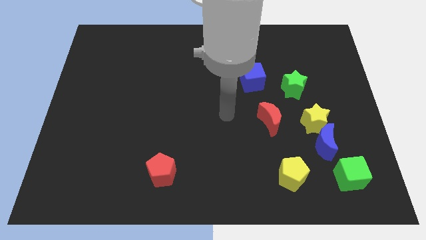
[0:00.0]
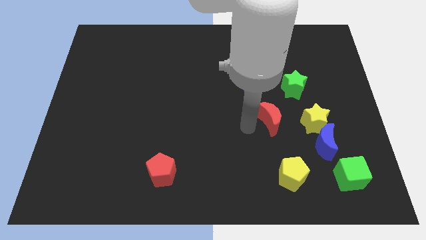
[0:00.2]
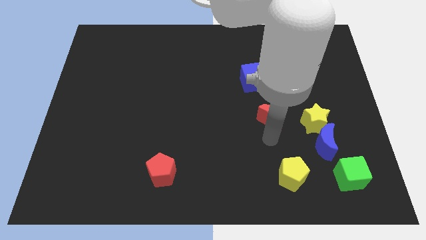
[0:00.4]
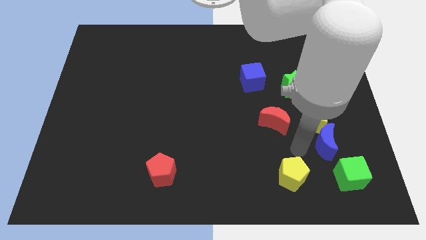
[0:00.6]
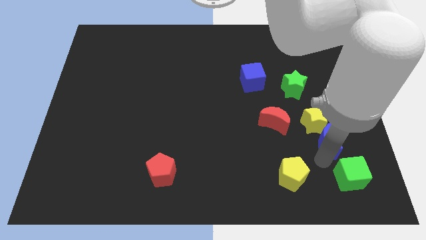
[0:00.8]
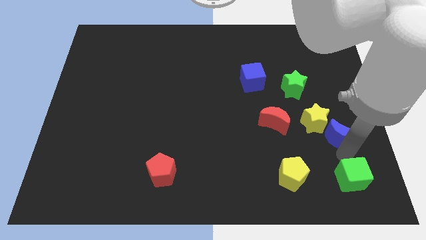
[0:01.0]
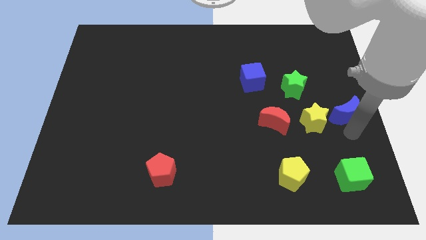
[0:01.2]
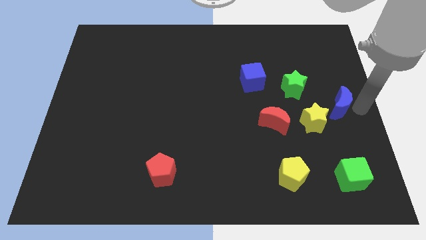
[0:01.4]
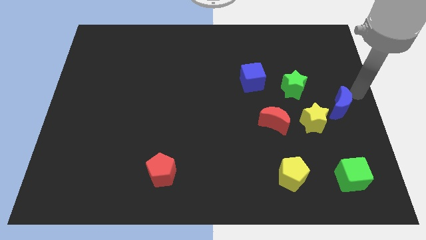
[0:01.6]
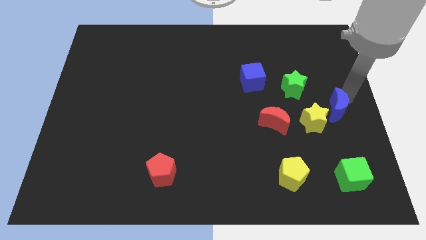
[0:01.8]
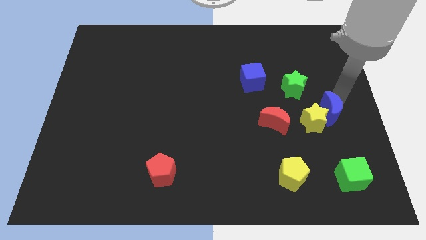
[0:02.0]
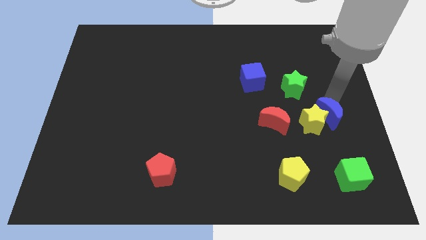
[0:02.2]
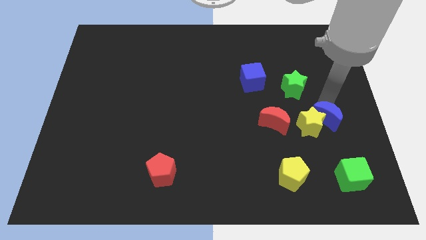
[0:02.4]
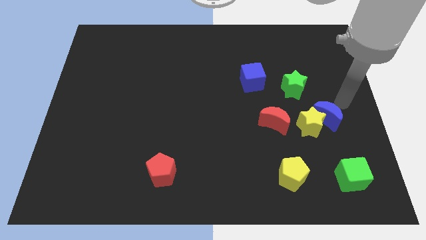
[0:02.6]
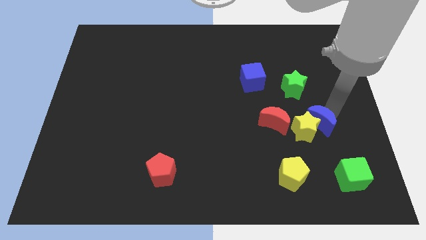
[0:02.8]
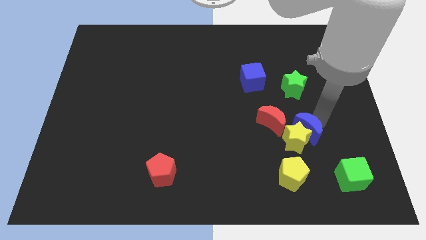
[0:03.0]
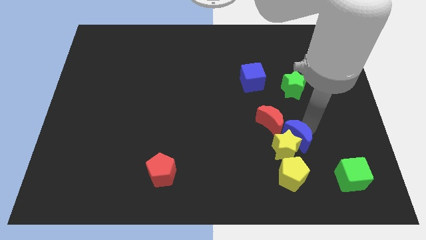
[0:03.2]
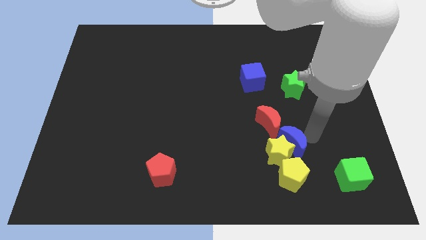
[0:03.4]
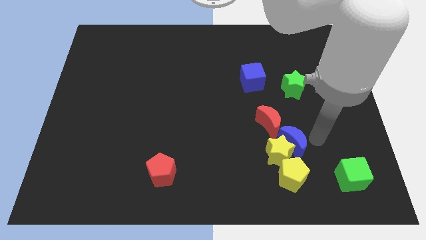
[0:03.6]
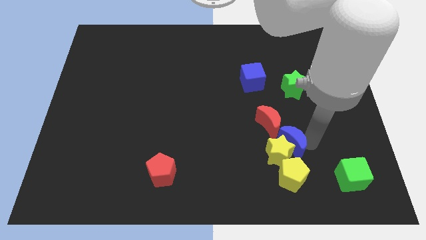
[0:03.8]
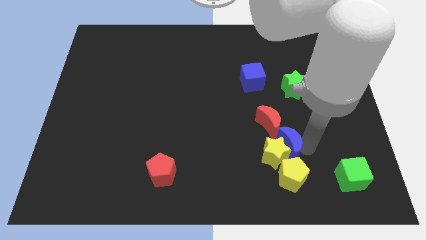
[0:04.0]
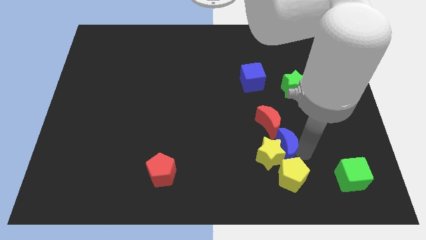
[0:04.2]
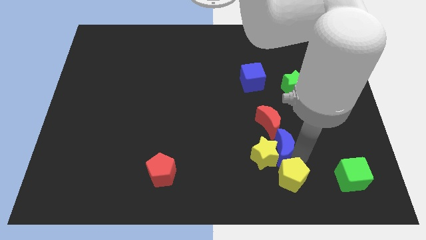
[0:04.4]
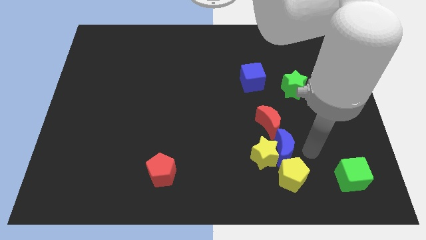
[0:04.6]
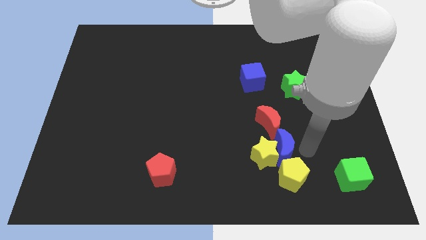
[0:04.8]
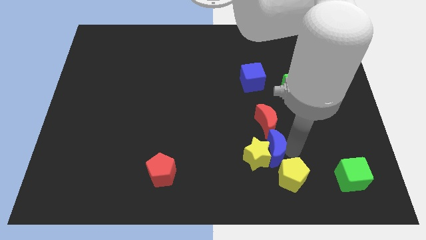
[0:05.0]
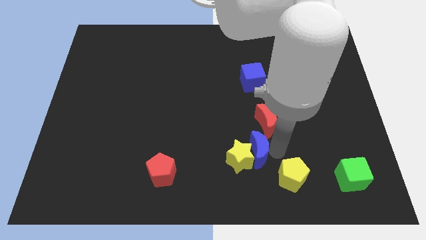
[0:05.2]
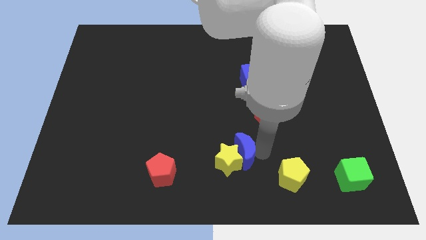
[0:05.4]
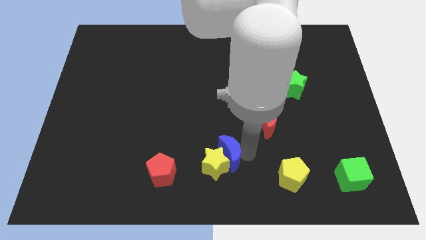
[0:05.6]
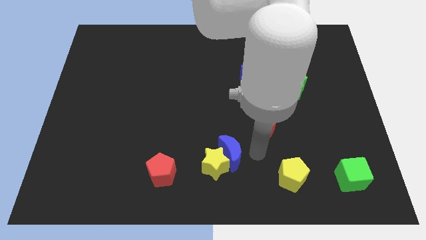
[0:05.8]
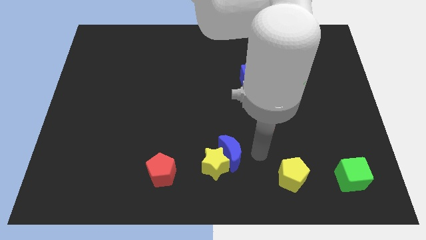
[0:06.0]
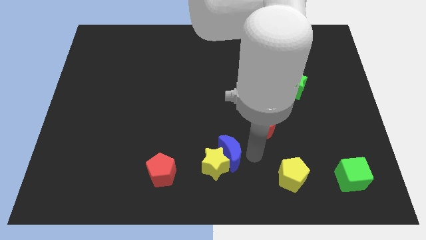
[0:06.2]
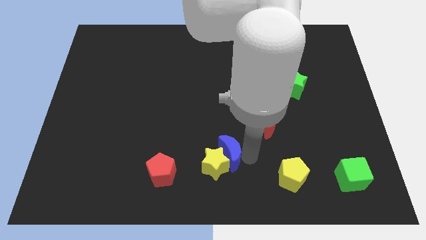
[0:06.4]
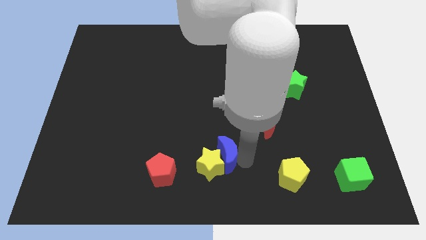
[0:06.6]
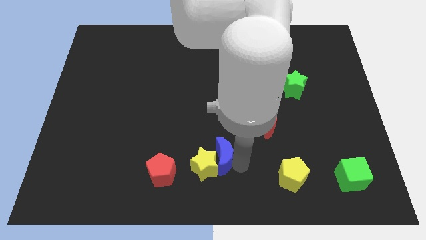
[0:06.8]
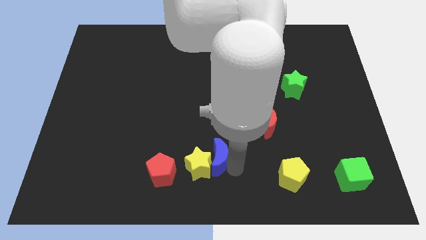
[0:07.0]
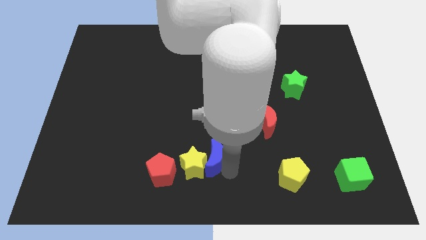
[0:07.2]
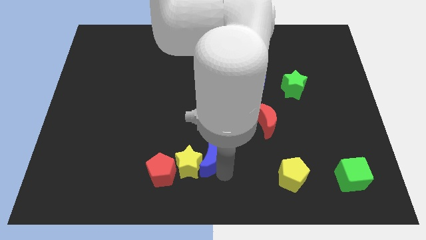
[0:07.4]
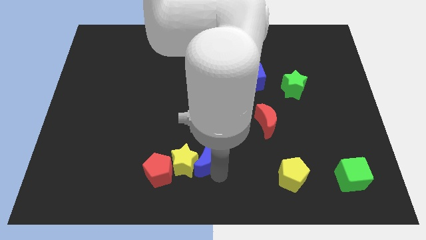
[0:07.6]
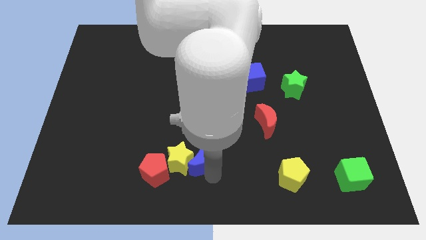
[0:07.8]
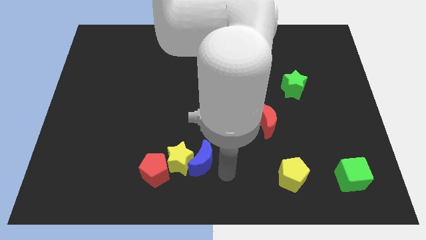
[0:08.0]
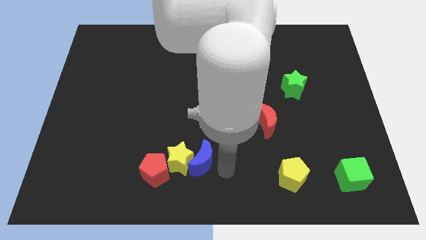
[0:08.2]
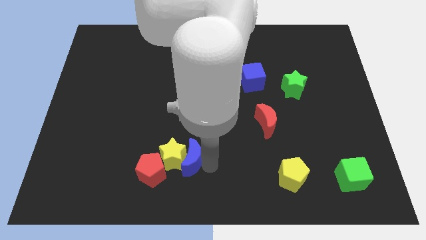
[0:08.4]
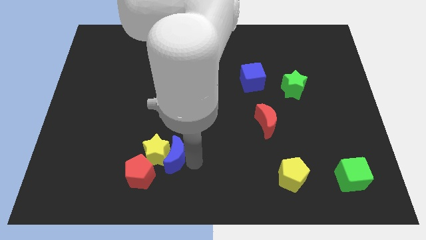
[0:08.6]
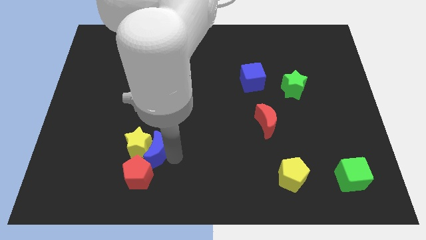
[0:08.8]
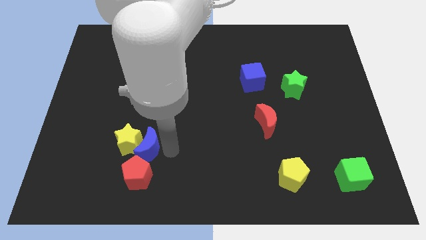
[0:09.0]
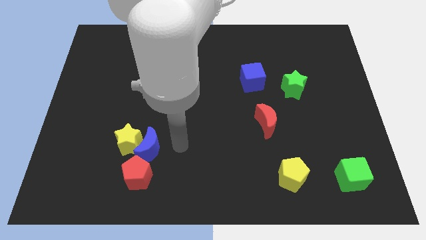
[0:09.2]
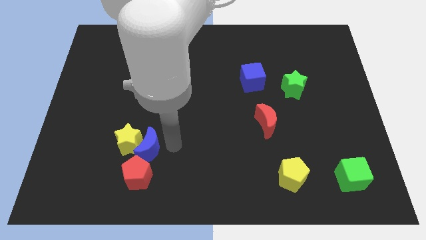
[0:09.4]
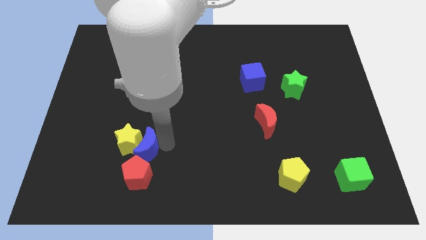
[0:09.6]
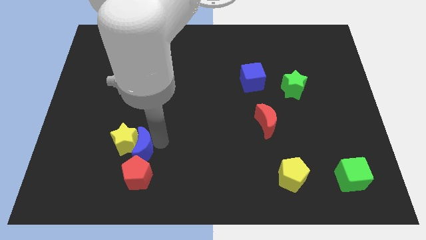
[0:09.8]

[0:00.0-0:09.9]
move the blue moon to the top left of the red pentagon

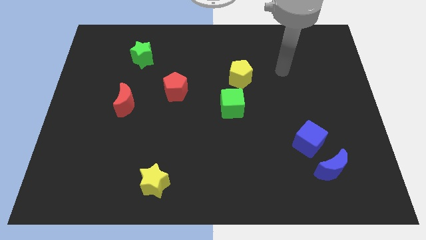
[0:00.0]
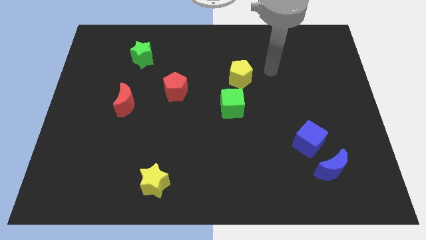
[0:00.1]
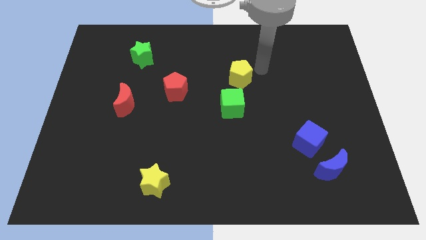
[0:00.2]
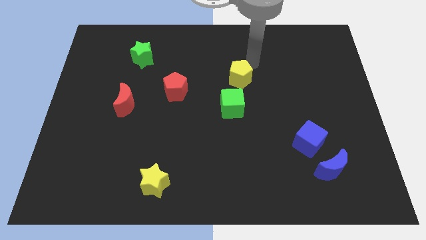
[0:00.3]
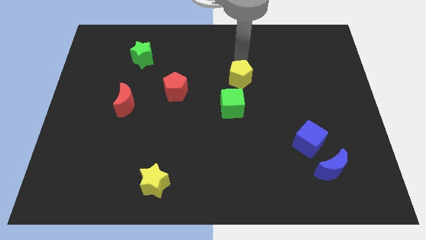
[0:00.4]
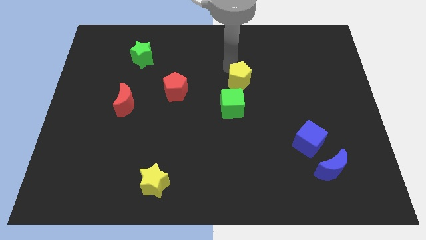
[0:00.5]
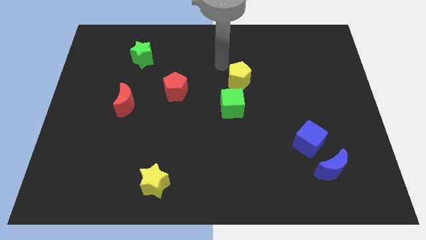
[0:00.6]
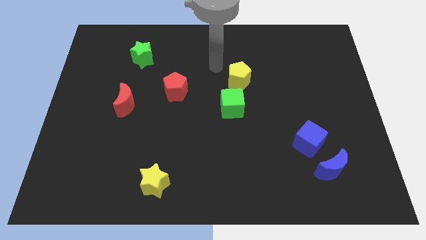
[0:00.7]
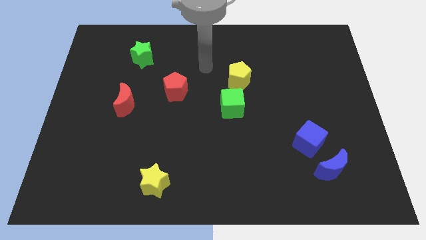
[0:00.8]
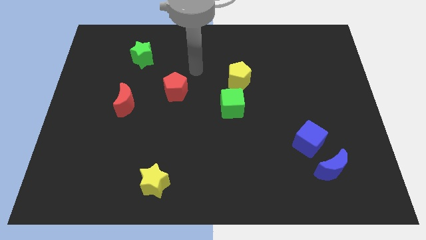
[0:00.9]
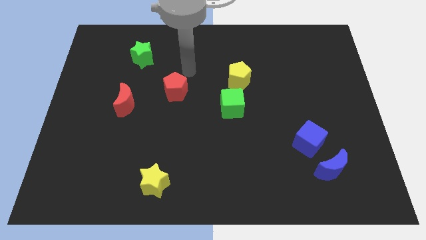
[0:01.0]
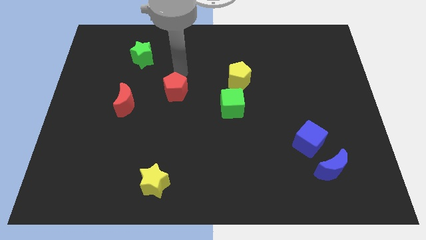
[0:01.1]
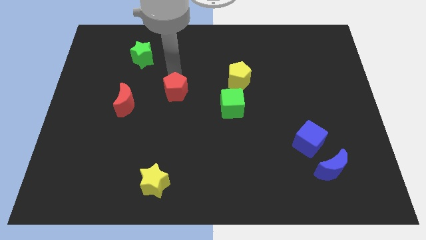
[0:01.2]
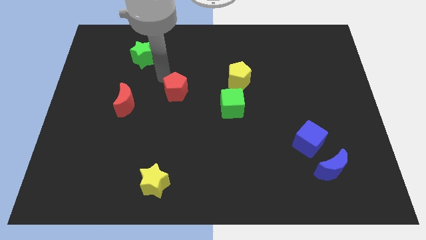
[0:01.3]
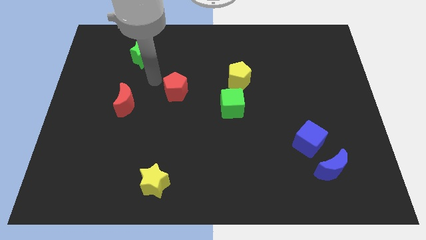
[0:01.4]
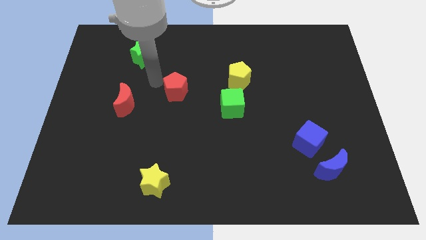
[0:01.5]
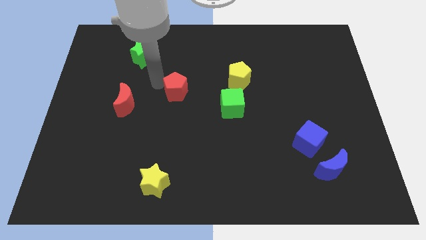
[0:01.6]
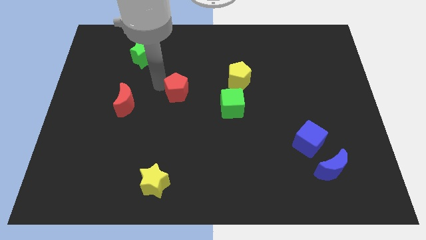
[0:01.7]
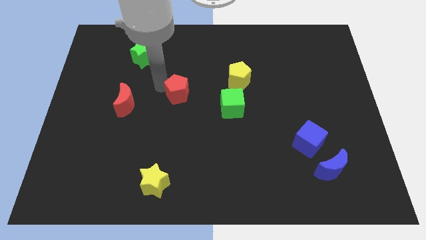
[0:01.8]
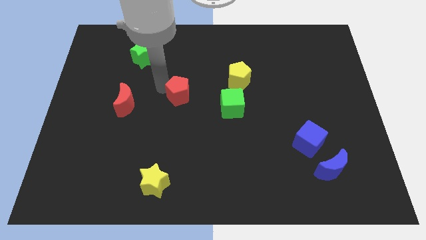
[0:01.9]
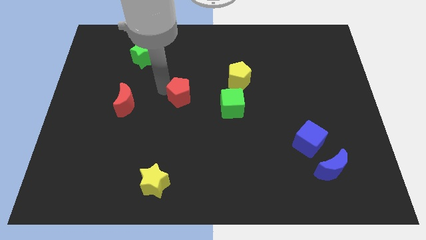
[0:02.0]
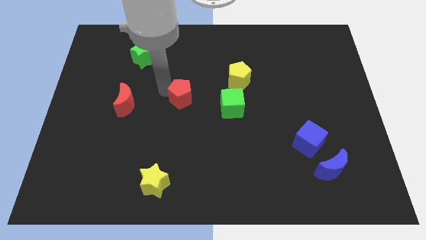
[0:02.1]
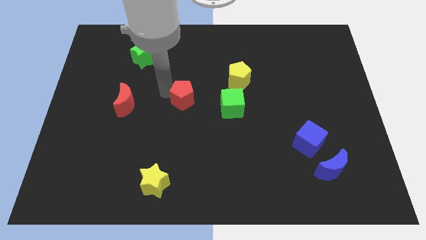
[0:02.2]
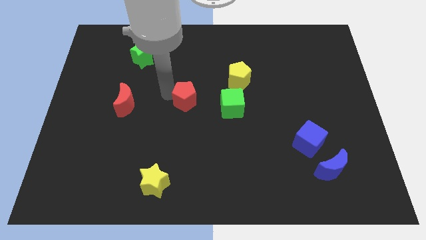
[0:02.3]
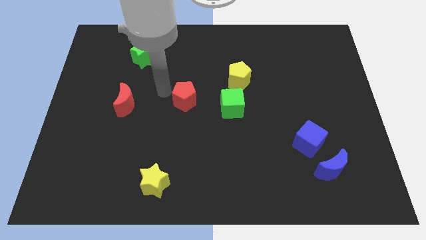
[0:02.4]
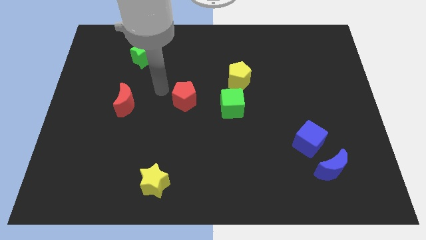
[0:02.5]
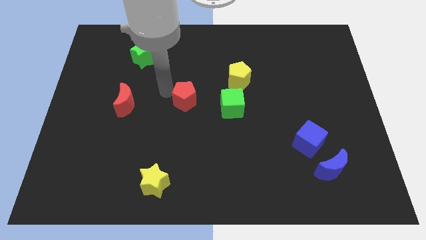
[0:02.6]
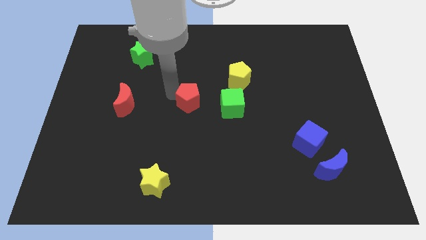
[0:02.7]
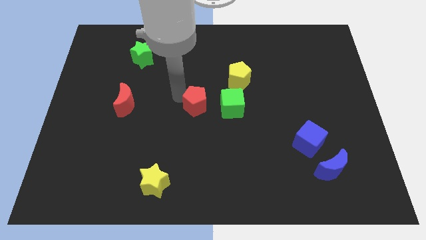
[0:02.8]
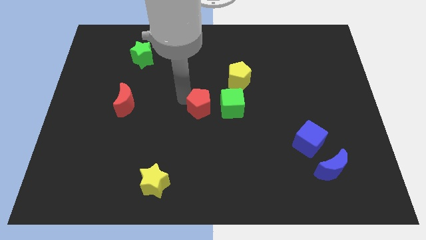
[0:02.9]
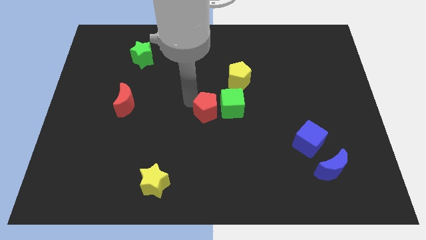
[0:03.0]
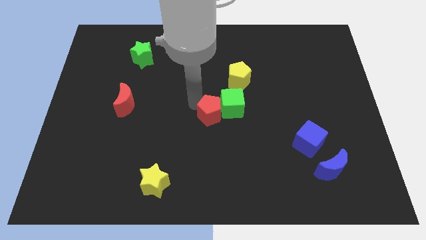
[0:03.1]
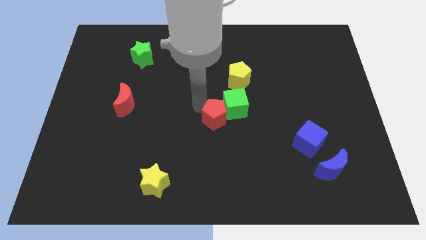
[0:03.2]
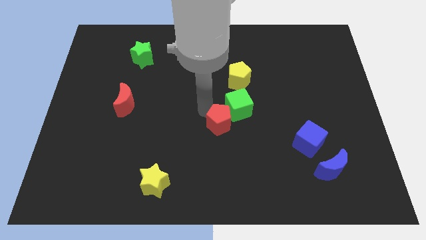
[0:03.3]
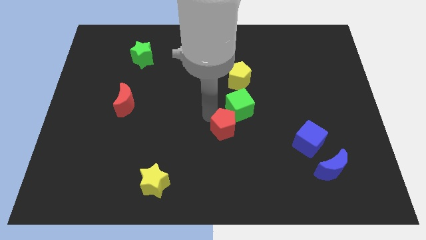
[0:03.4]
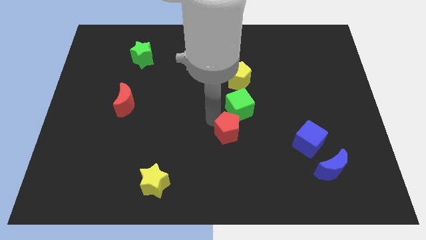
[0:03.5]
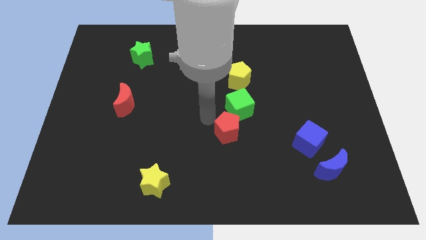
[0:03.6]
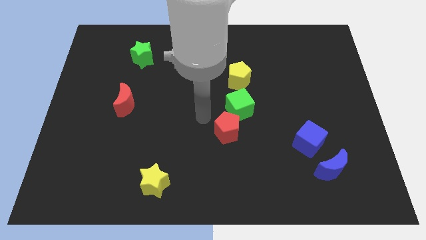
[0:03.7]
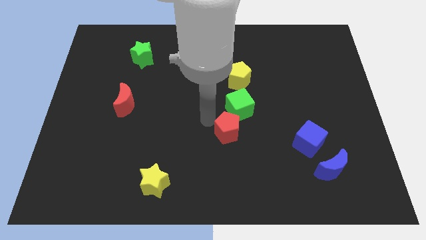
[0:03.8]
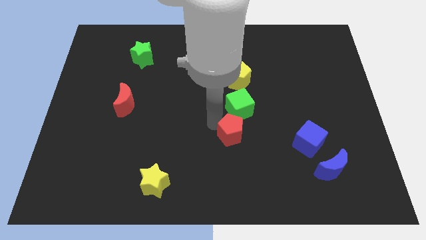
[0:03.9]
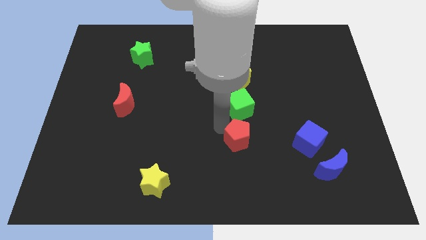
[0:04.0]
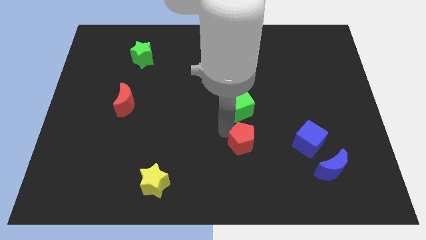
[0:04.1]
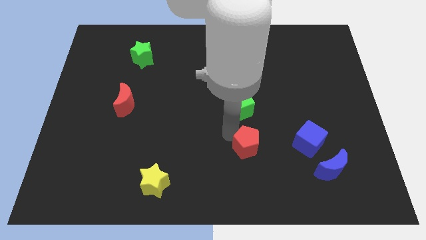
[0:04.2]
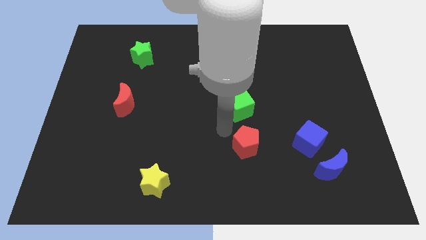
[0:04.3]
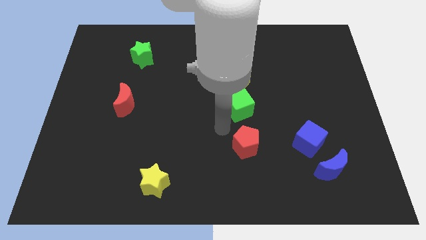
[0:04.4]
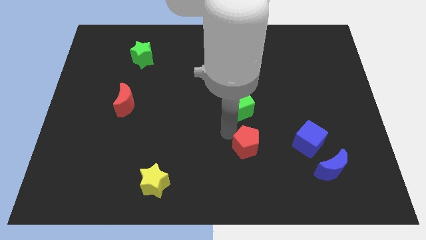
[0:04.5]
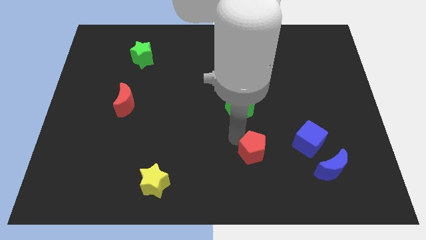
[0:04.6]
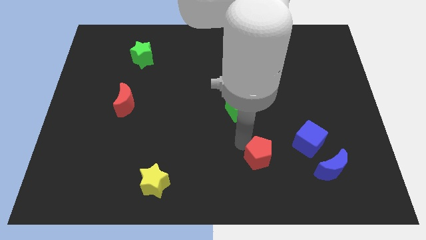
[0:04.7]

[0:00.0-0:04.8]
slide the red pentagon left of the blue moon
